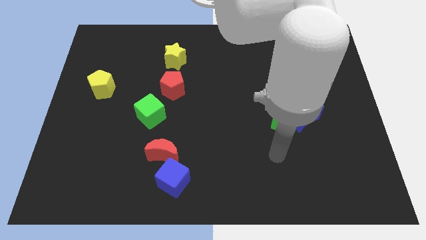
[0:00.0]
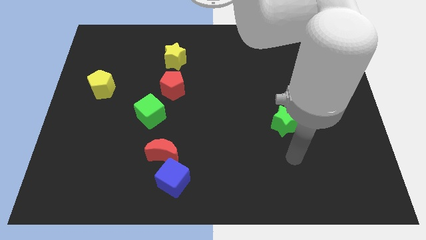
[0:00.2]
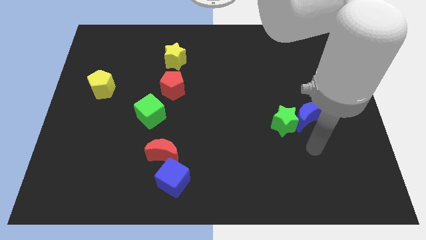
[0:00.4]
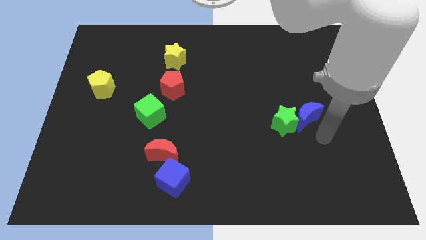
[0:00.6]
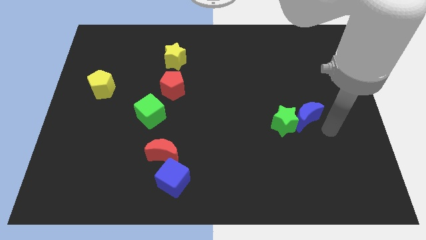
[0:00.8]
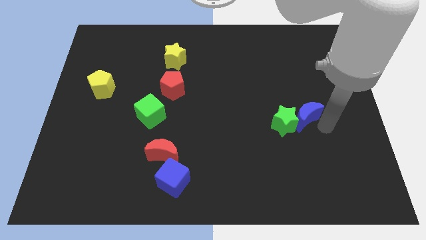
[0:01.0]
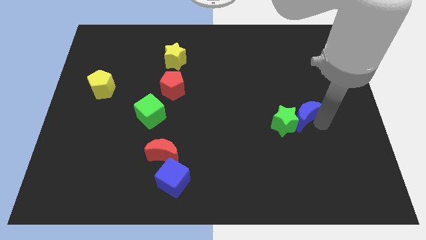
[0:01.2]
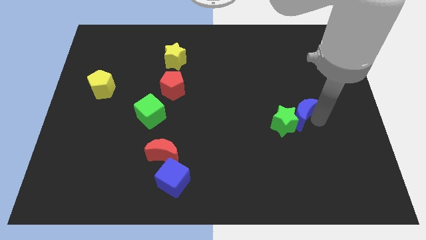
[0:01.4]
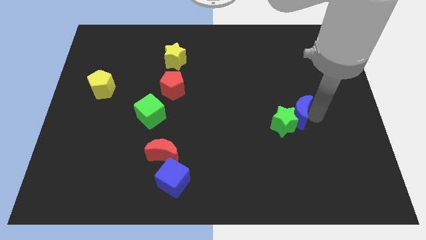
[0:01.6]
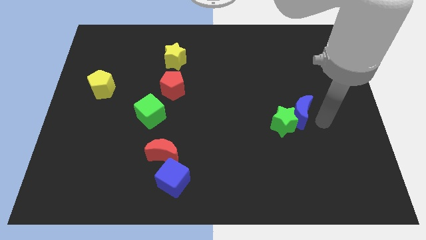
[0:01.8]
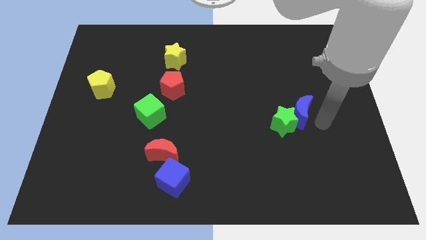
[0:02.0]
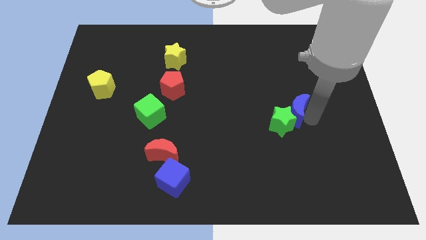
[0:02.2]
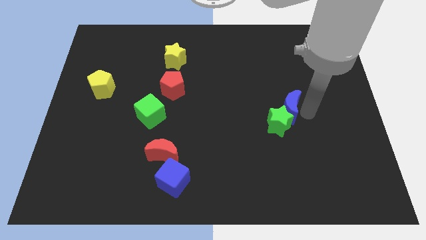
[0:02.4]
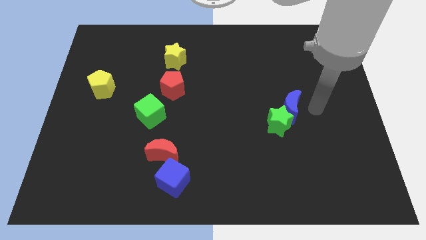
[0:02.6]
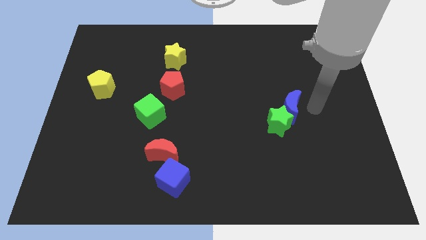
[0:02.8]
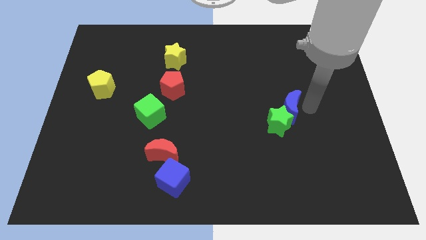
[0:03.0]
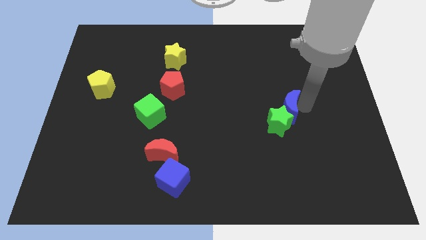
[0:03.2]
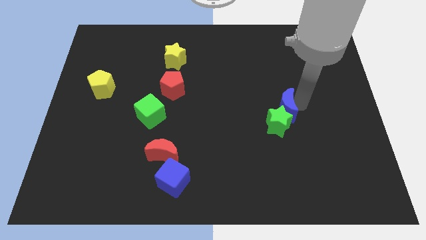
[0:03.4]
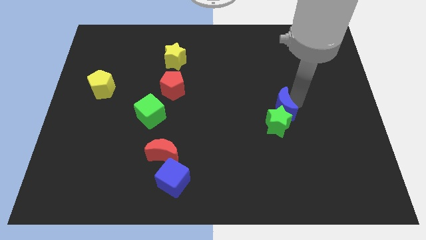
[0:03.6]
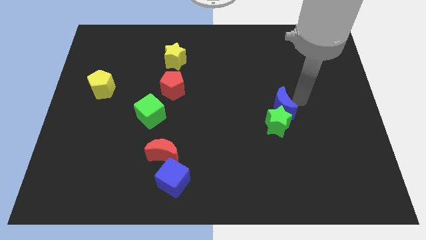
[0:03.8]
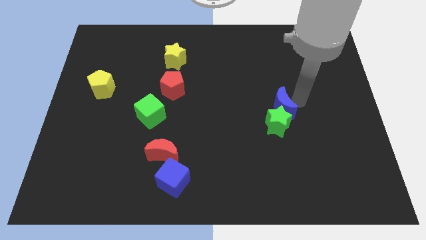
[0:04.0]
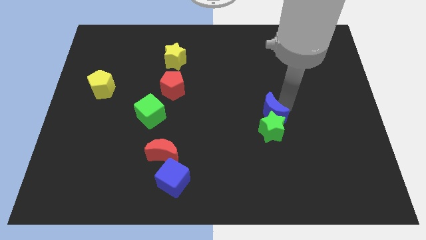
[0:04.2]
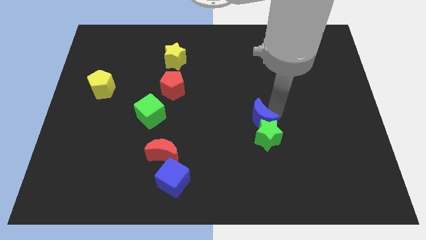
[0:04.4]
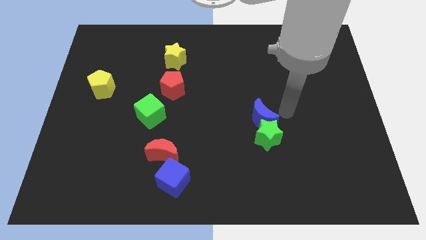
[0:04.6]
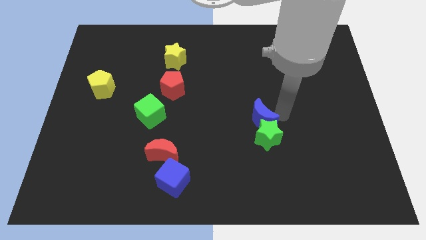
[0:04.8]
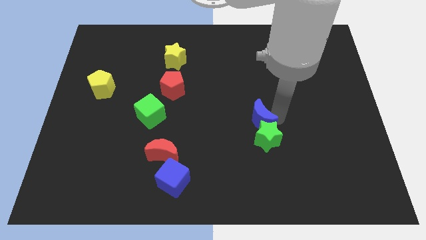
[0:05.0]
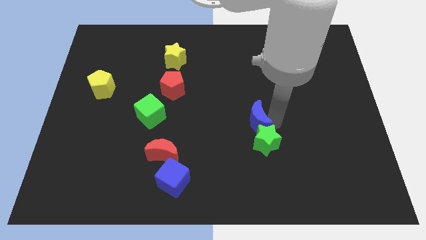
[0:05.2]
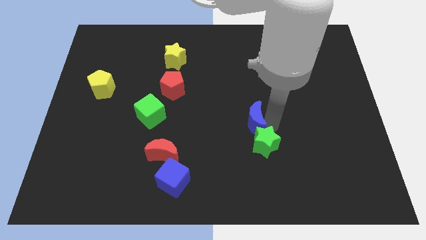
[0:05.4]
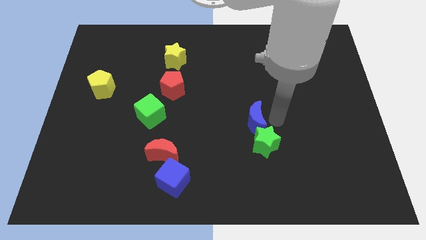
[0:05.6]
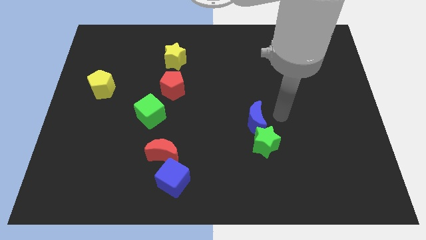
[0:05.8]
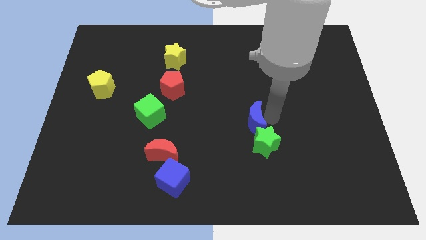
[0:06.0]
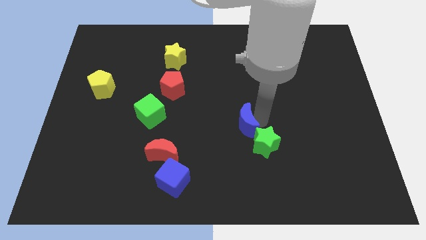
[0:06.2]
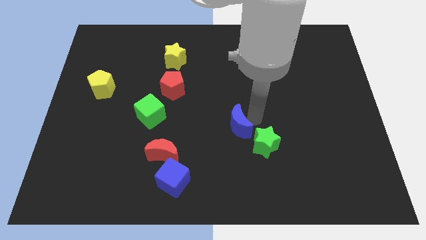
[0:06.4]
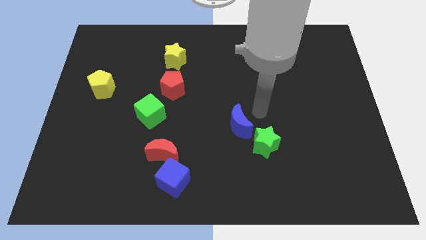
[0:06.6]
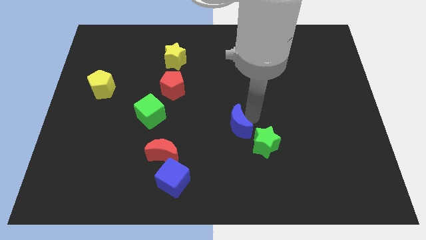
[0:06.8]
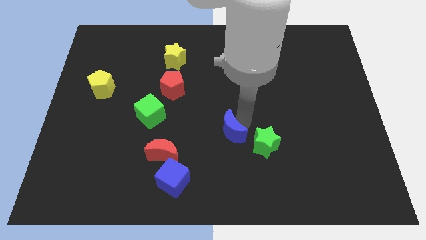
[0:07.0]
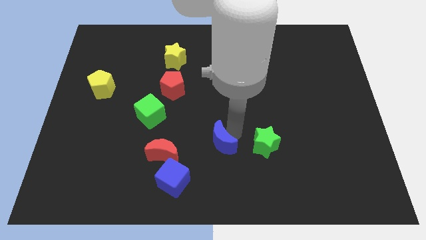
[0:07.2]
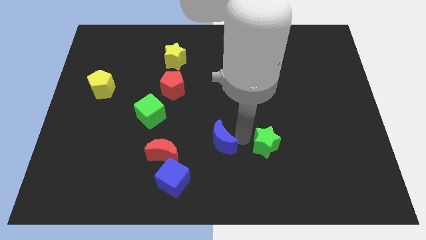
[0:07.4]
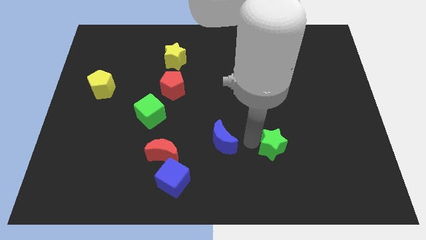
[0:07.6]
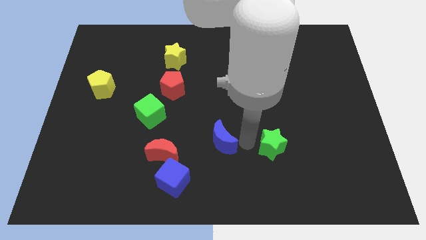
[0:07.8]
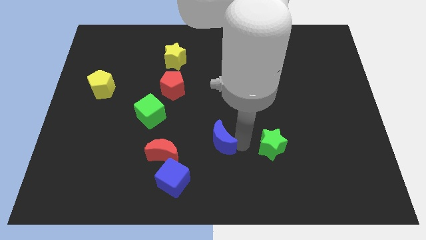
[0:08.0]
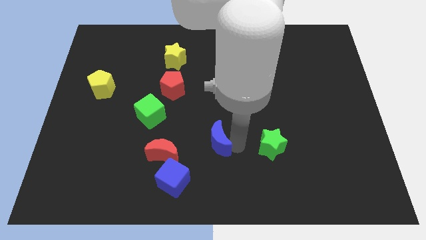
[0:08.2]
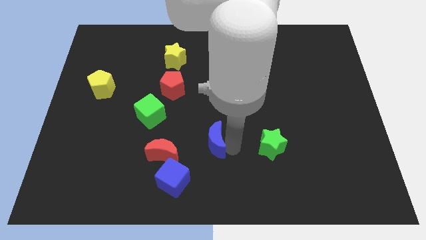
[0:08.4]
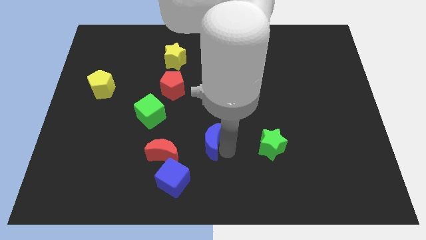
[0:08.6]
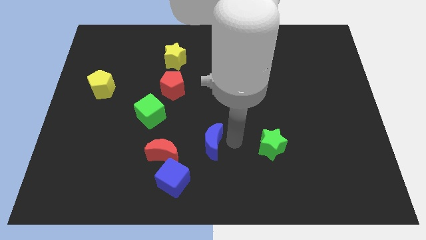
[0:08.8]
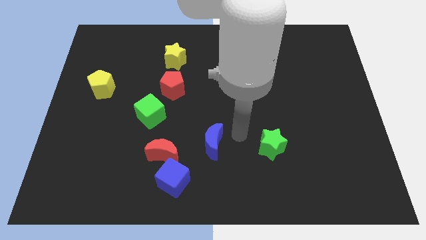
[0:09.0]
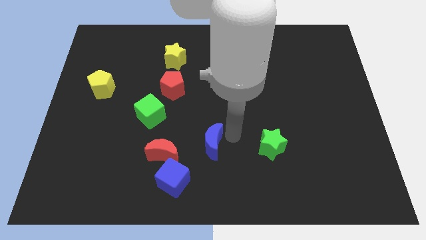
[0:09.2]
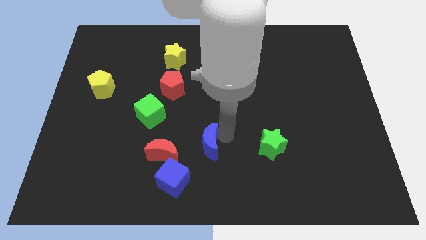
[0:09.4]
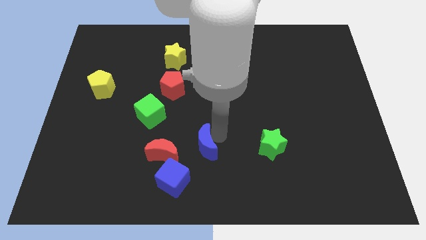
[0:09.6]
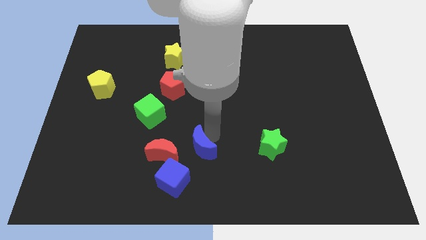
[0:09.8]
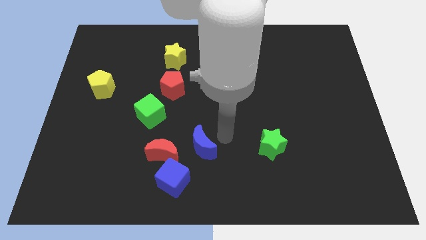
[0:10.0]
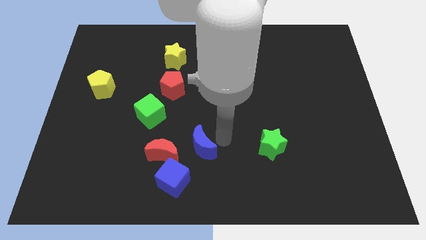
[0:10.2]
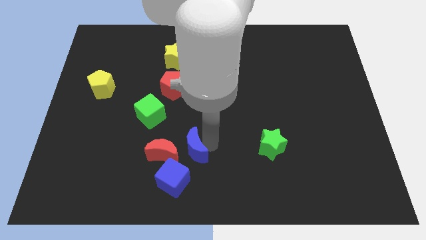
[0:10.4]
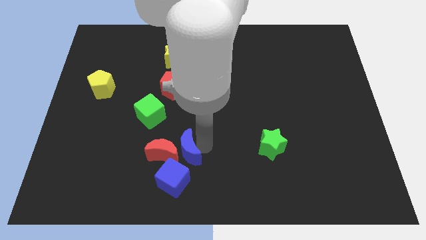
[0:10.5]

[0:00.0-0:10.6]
put the blue moon towards the red moon

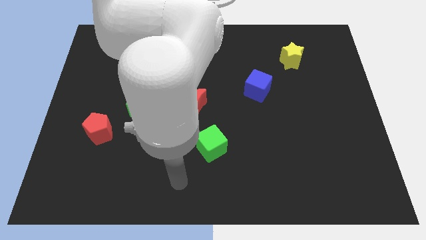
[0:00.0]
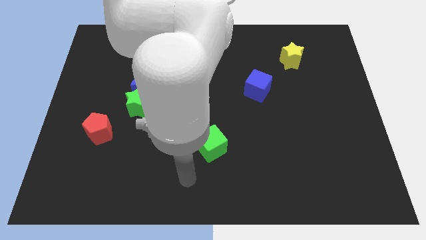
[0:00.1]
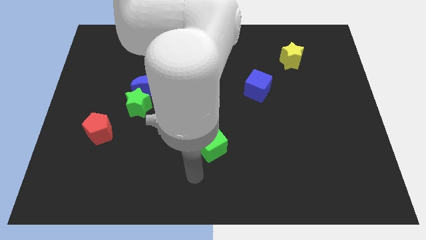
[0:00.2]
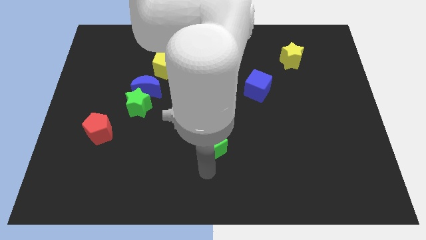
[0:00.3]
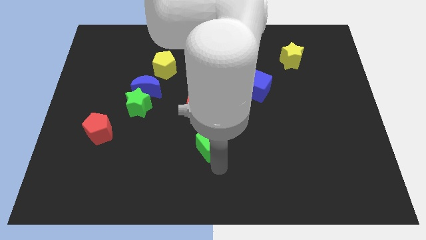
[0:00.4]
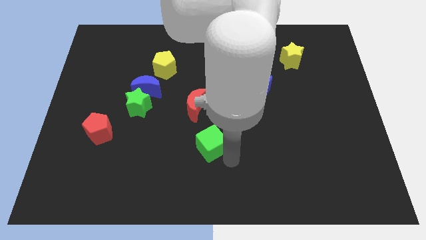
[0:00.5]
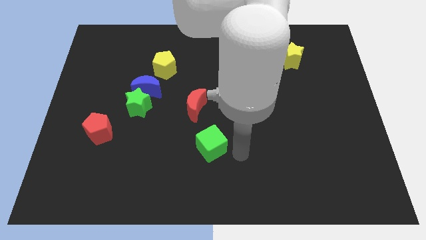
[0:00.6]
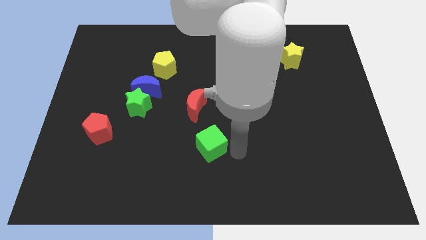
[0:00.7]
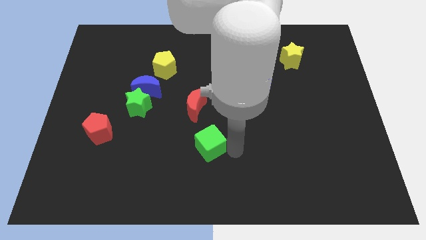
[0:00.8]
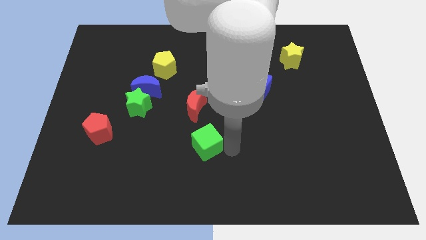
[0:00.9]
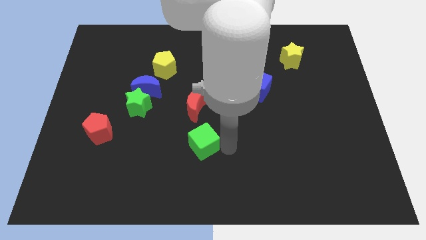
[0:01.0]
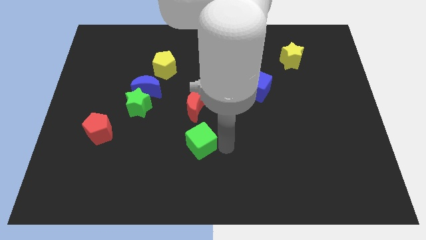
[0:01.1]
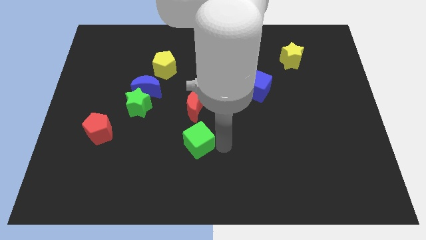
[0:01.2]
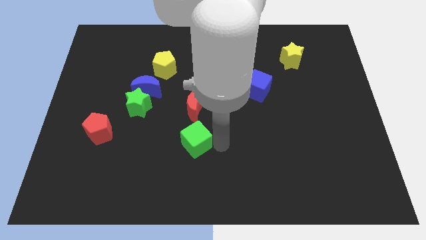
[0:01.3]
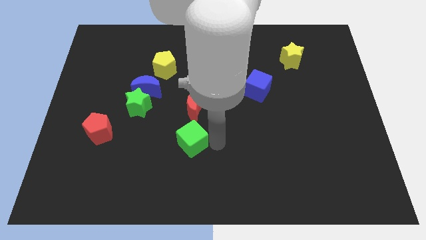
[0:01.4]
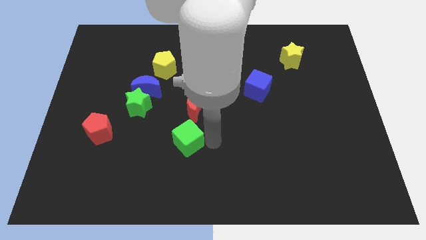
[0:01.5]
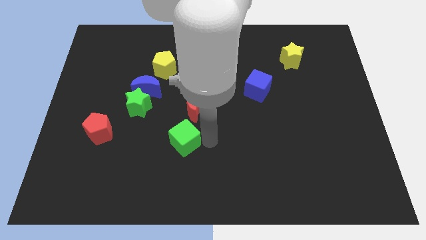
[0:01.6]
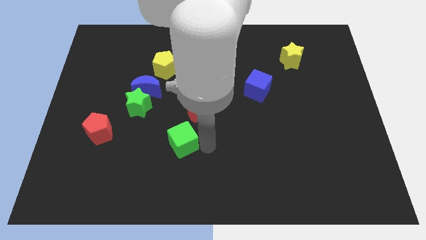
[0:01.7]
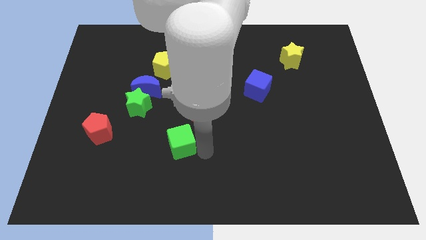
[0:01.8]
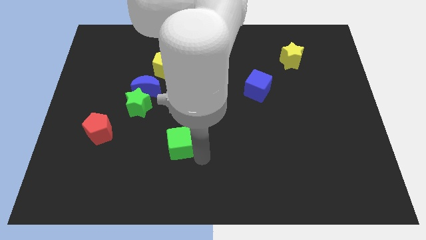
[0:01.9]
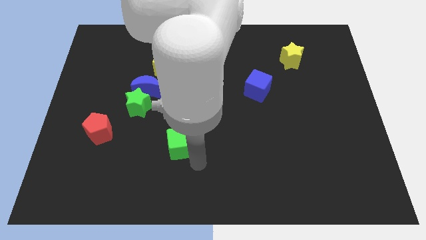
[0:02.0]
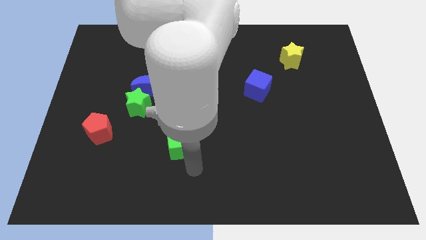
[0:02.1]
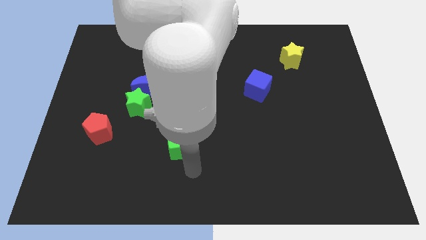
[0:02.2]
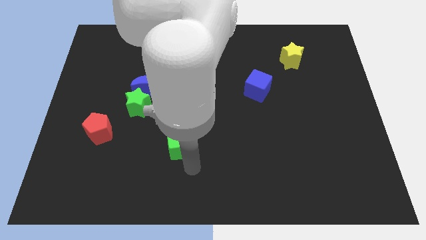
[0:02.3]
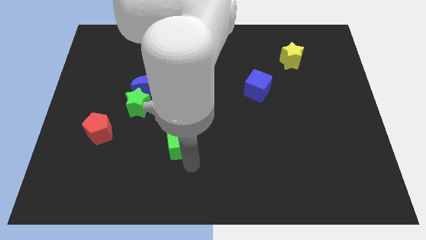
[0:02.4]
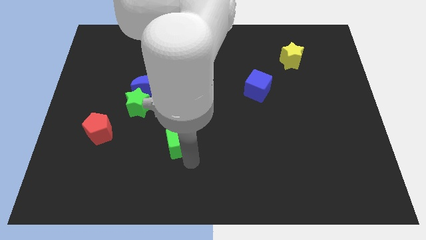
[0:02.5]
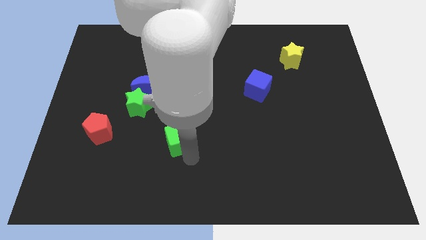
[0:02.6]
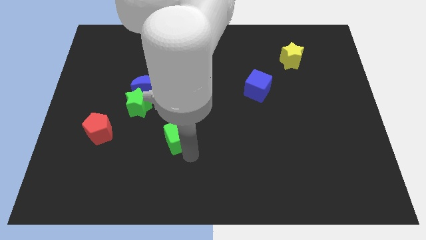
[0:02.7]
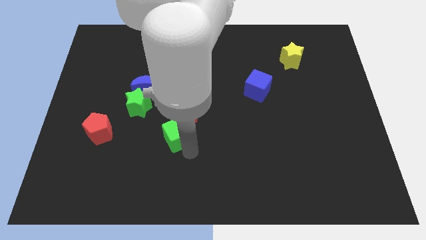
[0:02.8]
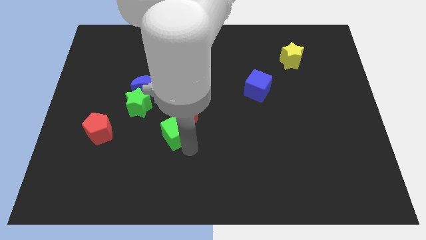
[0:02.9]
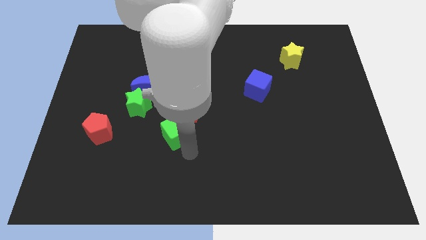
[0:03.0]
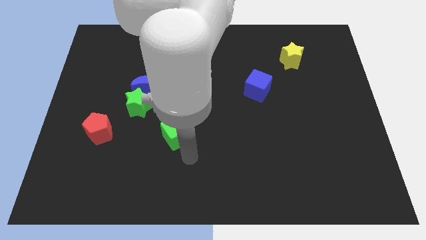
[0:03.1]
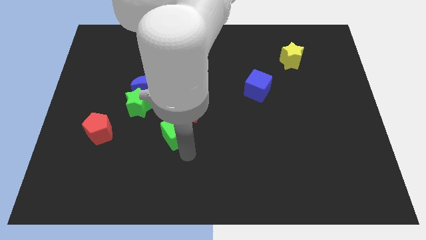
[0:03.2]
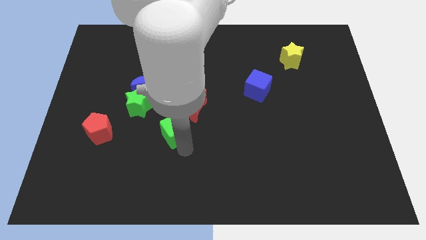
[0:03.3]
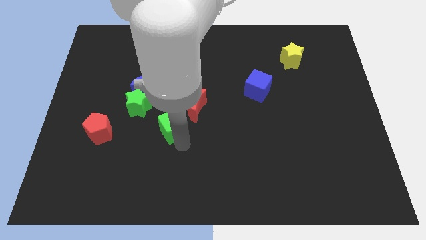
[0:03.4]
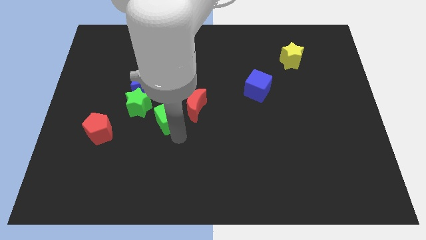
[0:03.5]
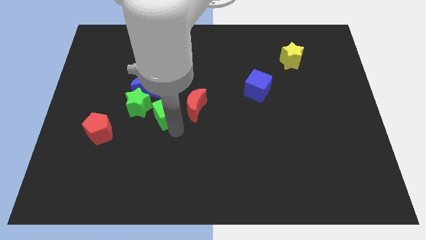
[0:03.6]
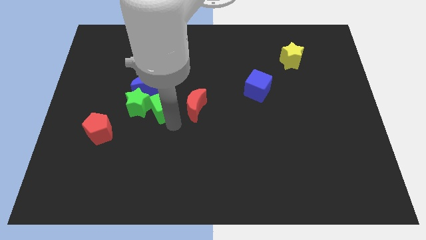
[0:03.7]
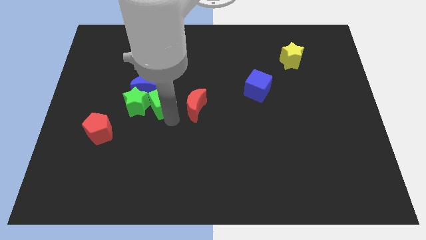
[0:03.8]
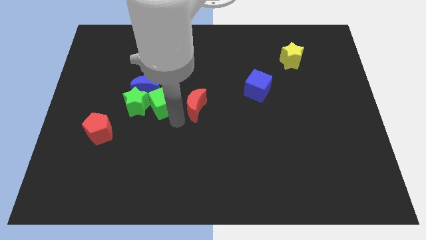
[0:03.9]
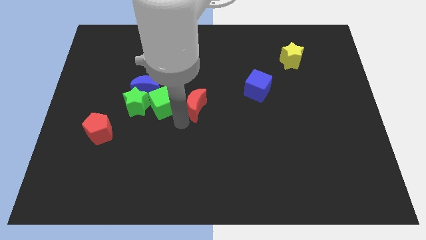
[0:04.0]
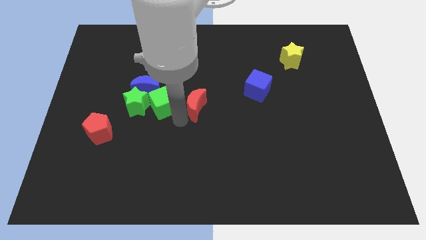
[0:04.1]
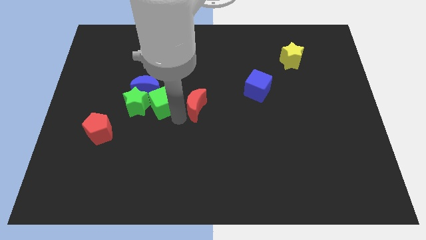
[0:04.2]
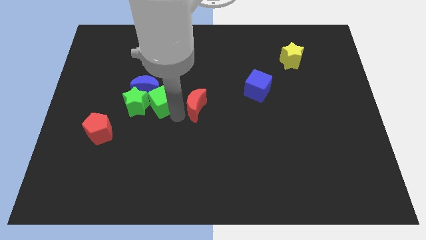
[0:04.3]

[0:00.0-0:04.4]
push the green cube towards the blue moon
